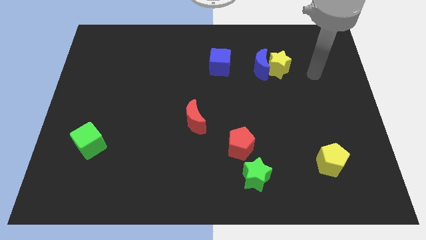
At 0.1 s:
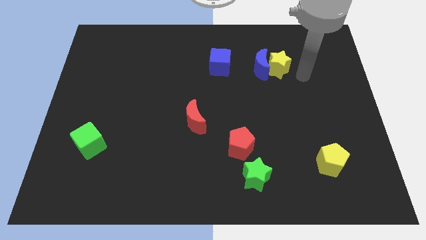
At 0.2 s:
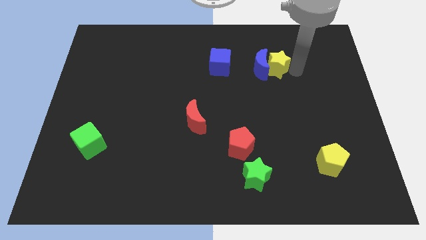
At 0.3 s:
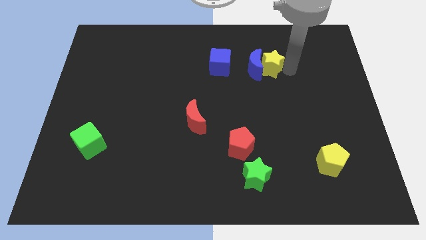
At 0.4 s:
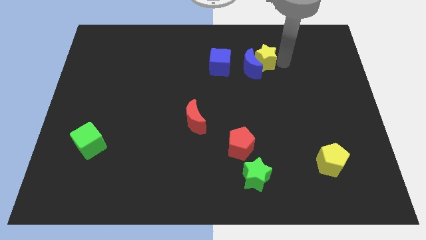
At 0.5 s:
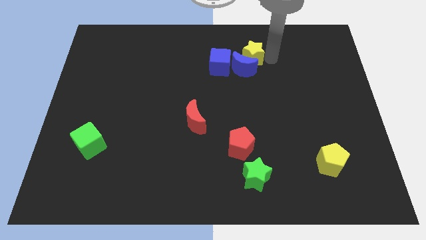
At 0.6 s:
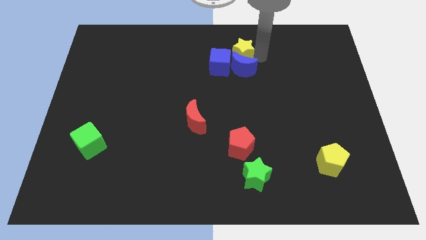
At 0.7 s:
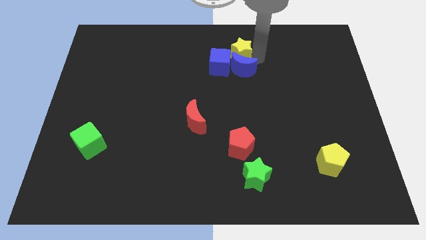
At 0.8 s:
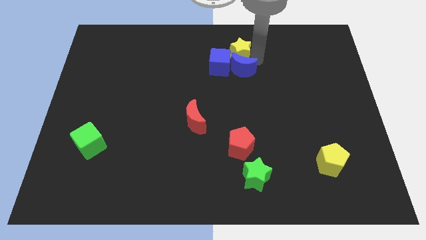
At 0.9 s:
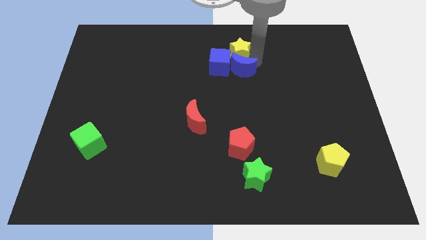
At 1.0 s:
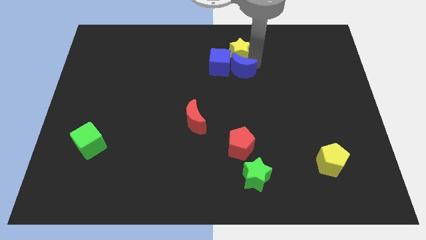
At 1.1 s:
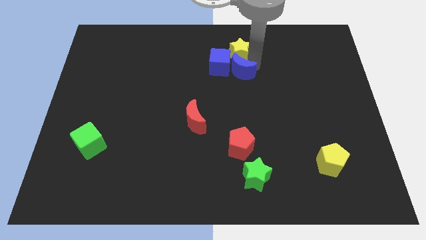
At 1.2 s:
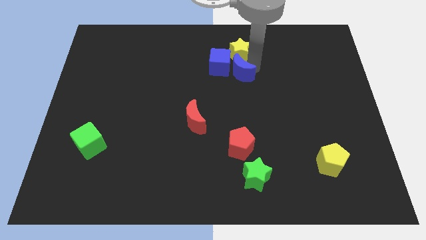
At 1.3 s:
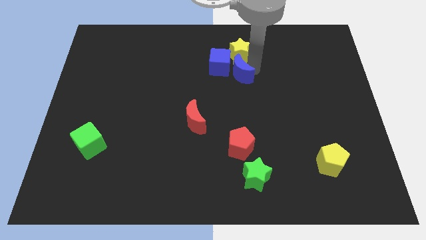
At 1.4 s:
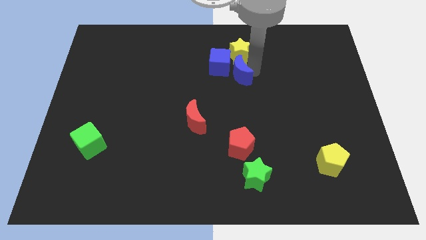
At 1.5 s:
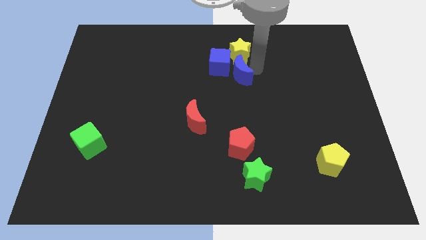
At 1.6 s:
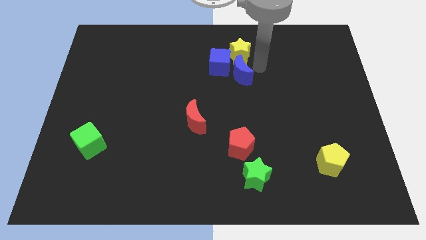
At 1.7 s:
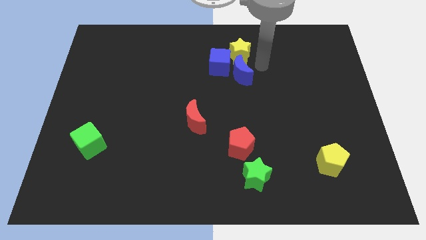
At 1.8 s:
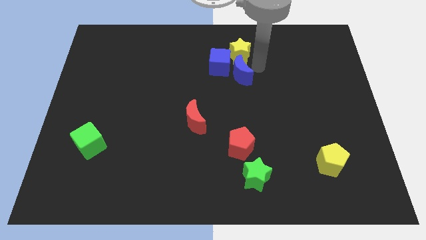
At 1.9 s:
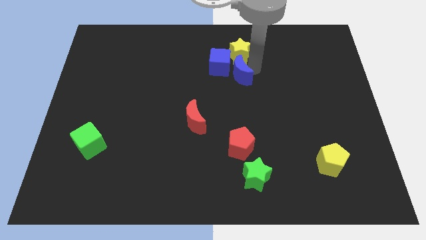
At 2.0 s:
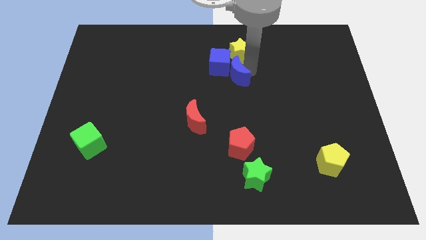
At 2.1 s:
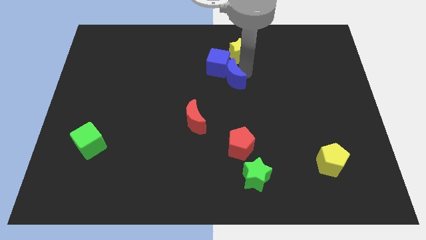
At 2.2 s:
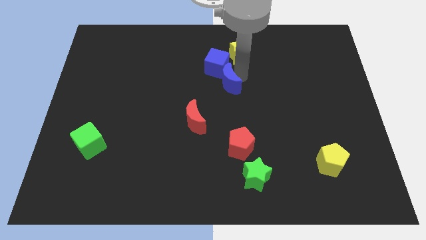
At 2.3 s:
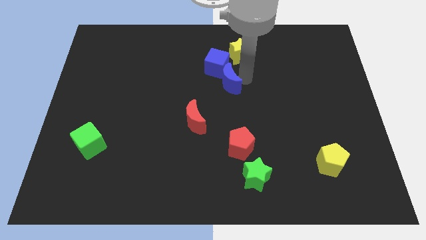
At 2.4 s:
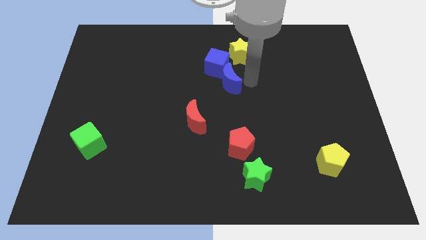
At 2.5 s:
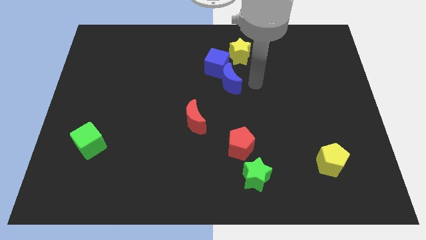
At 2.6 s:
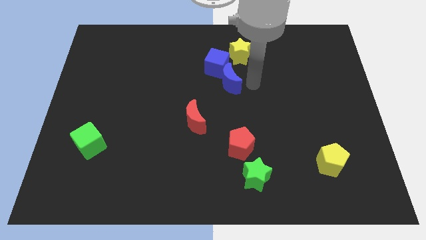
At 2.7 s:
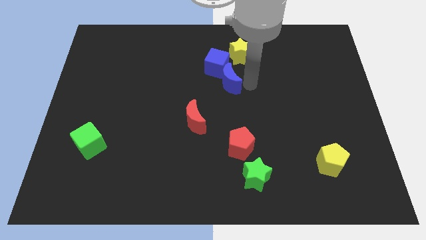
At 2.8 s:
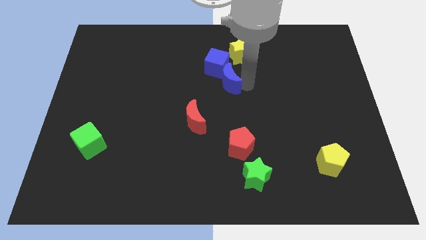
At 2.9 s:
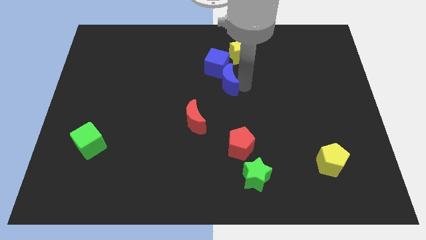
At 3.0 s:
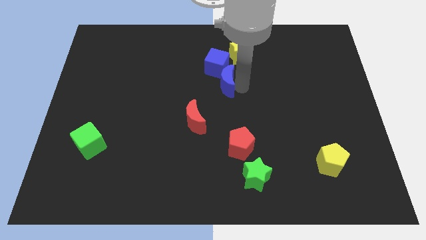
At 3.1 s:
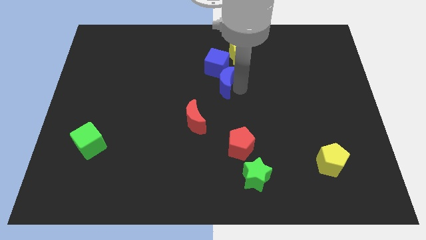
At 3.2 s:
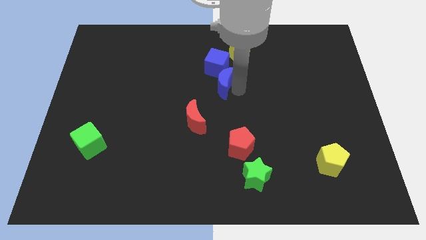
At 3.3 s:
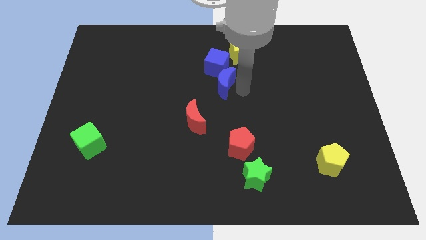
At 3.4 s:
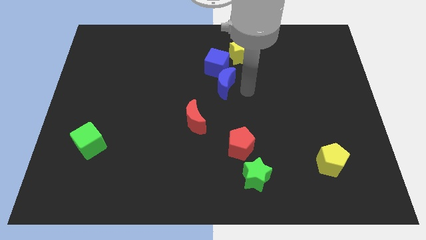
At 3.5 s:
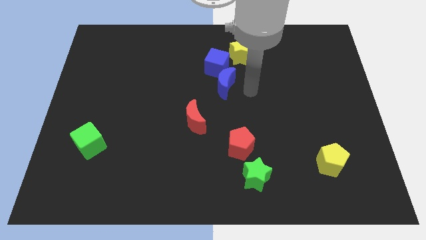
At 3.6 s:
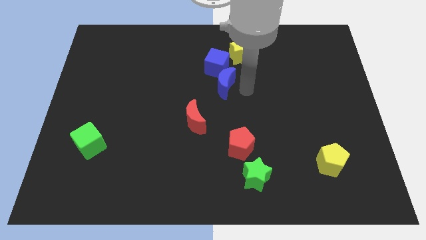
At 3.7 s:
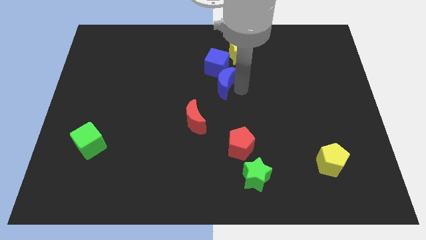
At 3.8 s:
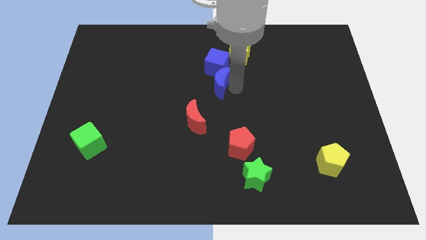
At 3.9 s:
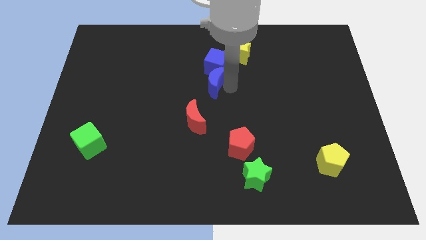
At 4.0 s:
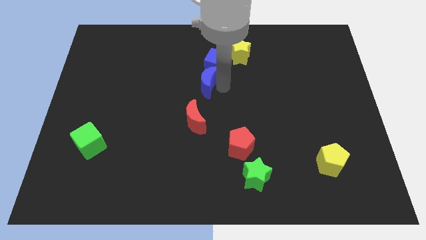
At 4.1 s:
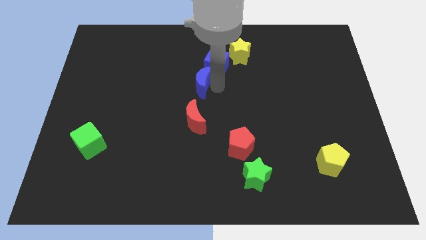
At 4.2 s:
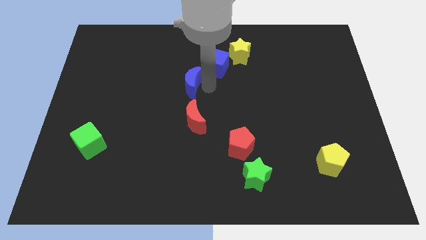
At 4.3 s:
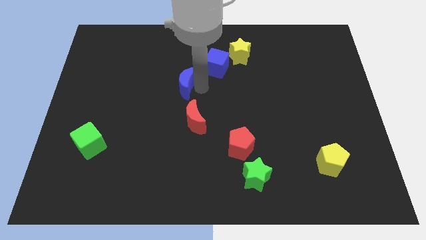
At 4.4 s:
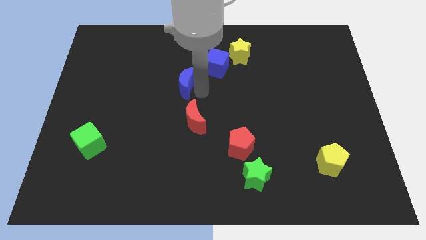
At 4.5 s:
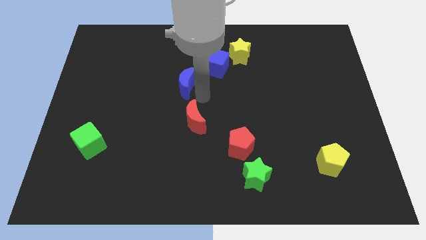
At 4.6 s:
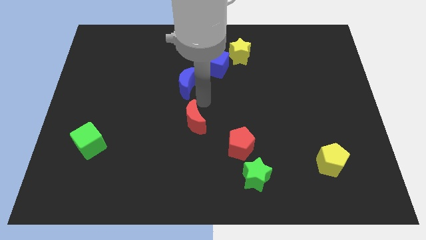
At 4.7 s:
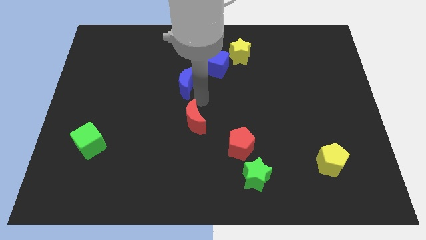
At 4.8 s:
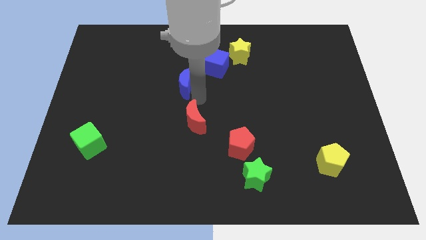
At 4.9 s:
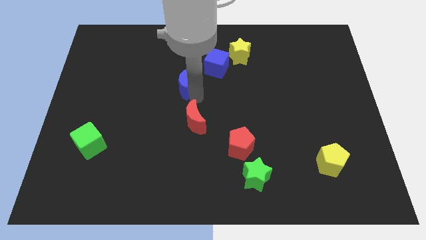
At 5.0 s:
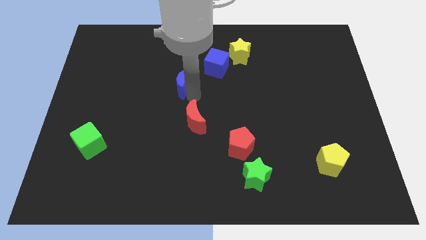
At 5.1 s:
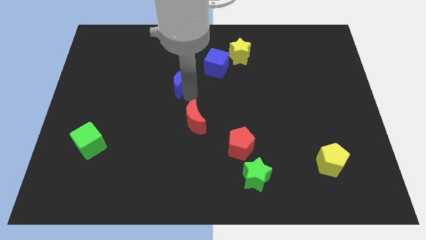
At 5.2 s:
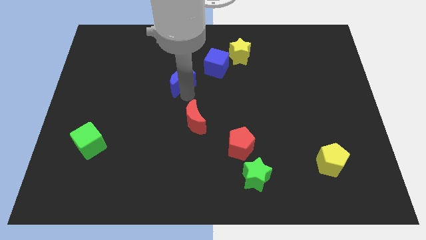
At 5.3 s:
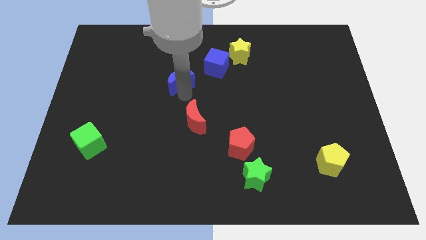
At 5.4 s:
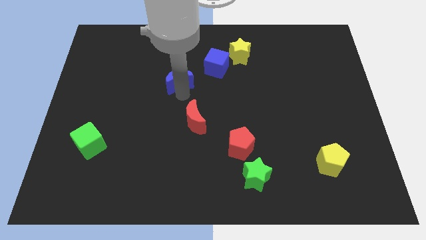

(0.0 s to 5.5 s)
move the blue moon left

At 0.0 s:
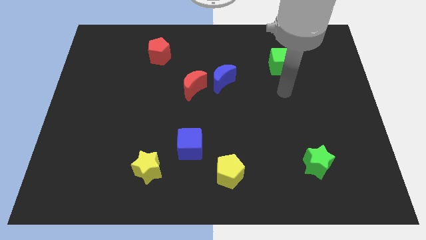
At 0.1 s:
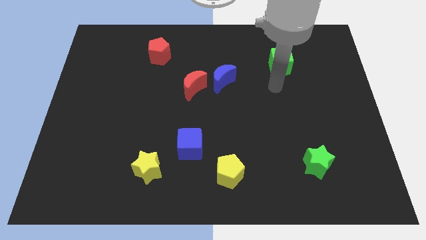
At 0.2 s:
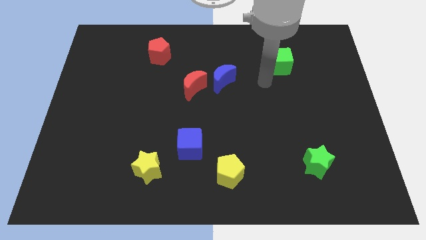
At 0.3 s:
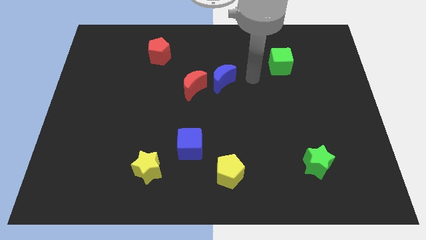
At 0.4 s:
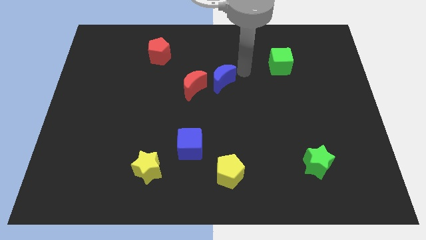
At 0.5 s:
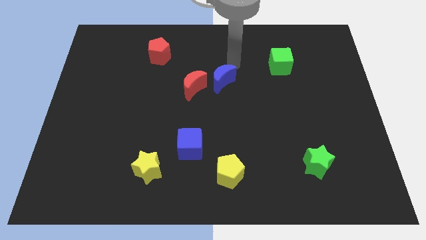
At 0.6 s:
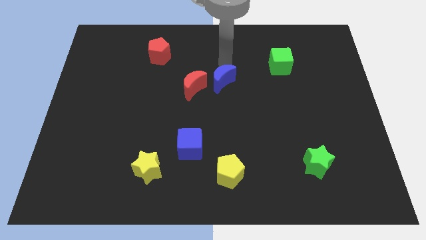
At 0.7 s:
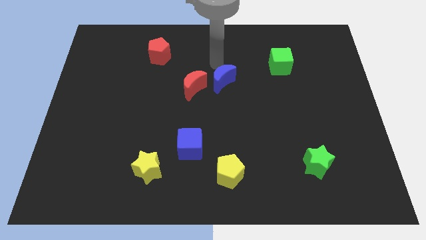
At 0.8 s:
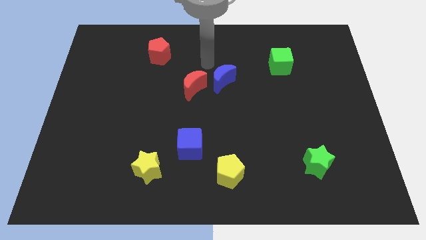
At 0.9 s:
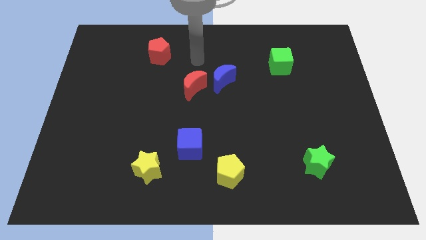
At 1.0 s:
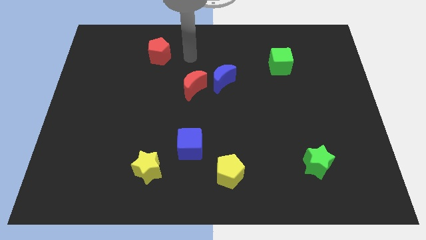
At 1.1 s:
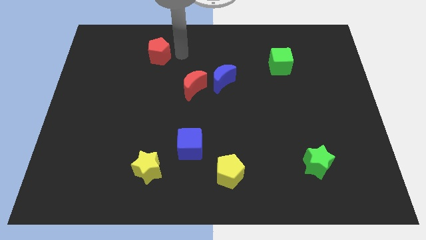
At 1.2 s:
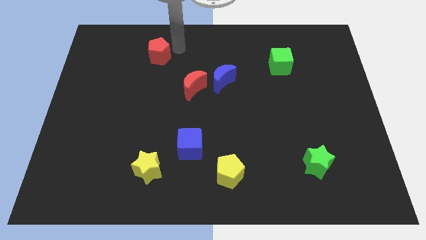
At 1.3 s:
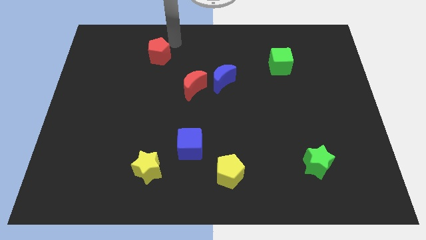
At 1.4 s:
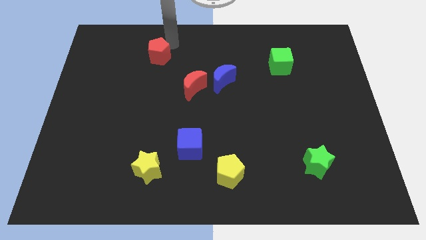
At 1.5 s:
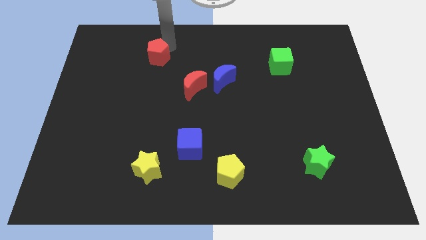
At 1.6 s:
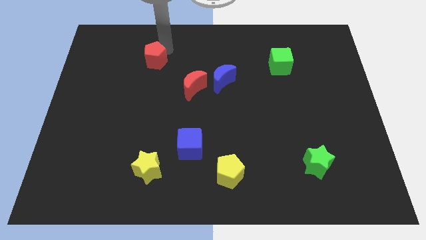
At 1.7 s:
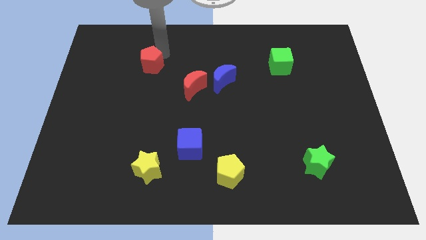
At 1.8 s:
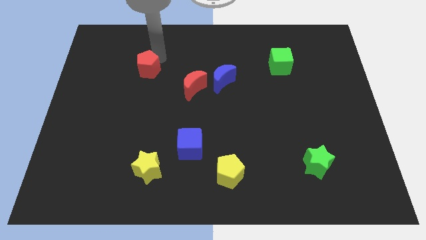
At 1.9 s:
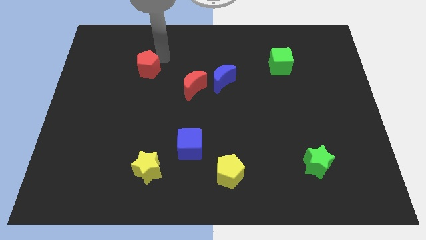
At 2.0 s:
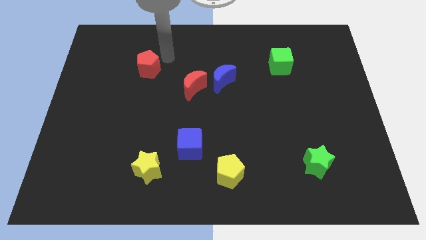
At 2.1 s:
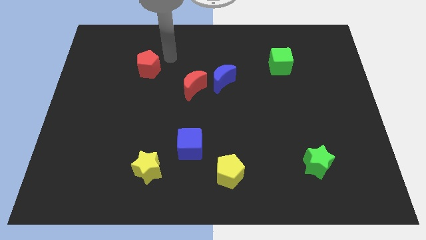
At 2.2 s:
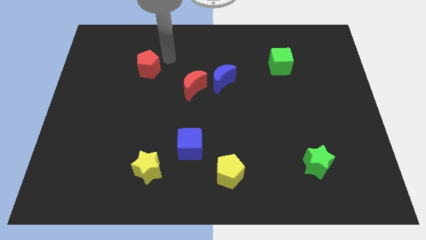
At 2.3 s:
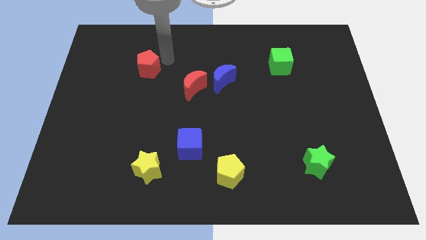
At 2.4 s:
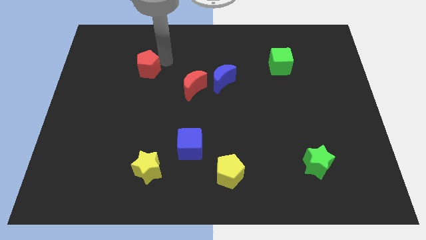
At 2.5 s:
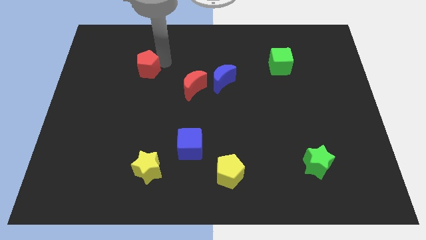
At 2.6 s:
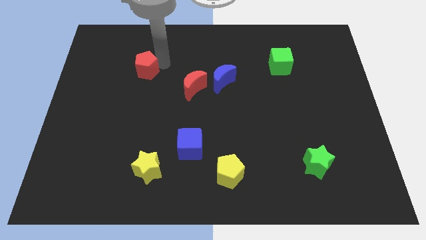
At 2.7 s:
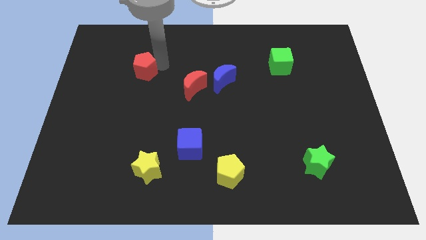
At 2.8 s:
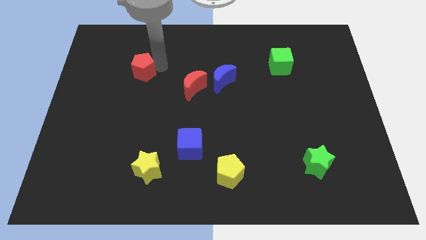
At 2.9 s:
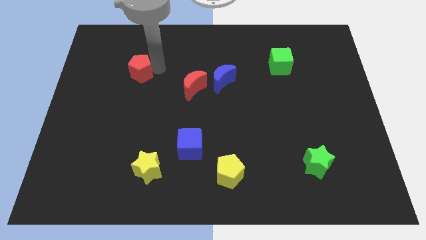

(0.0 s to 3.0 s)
push the red pentagon somewhat down and left
